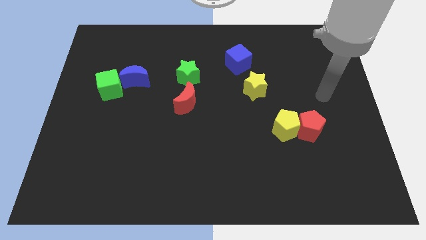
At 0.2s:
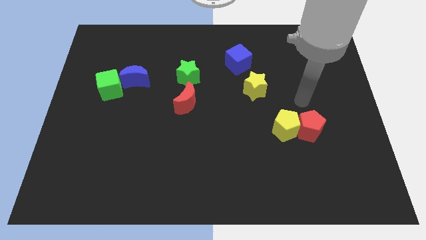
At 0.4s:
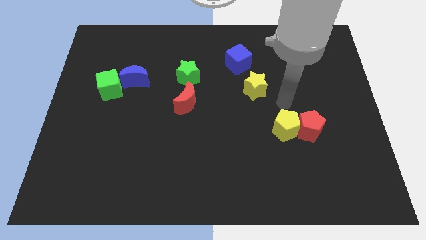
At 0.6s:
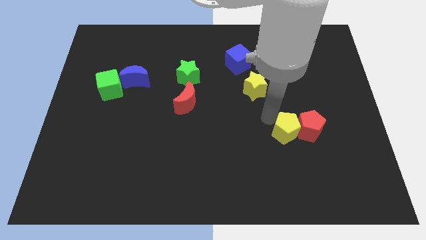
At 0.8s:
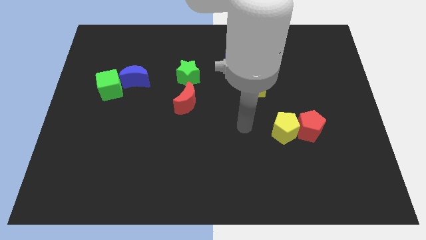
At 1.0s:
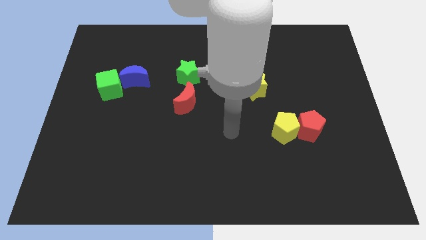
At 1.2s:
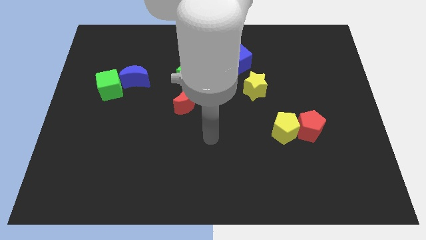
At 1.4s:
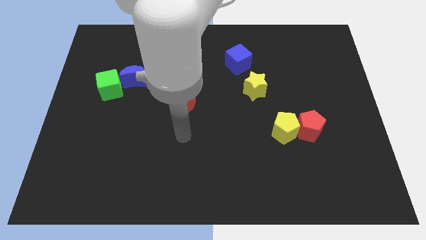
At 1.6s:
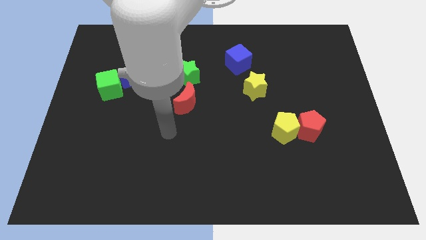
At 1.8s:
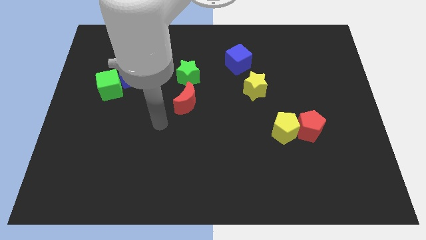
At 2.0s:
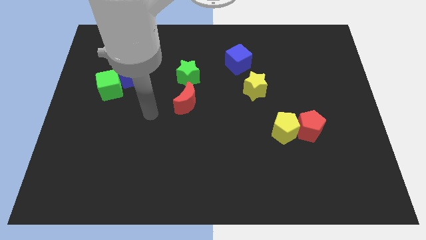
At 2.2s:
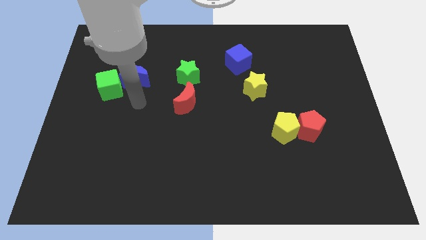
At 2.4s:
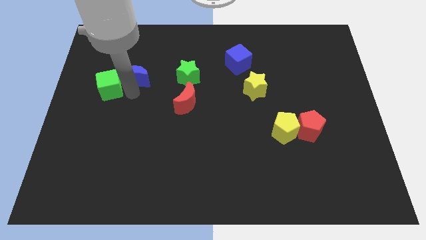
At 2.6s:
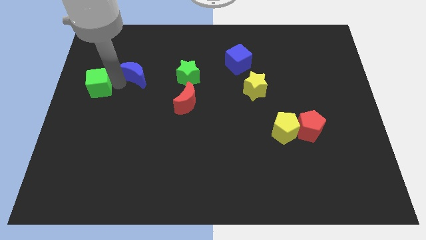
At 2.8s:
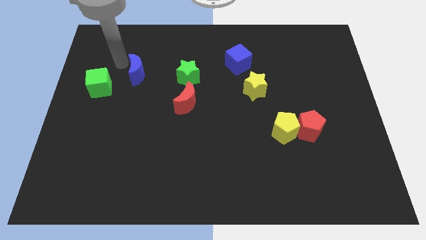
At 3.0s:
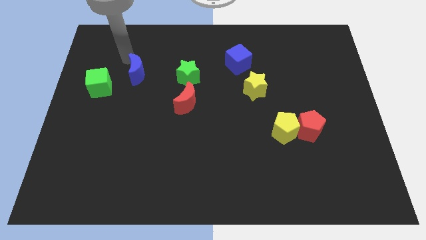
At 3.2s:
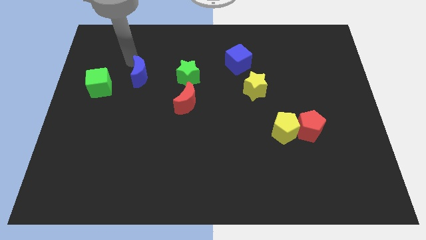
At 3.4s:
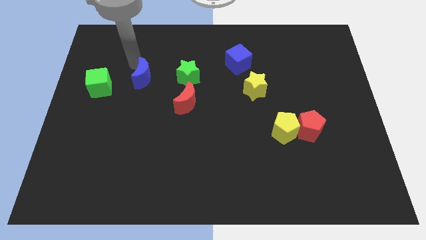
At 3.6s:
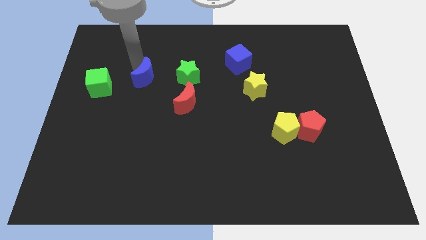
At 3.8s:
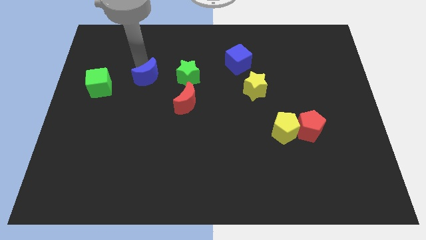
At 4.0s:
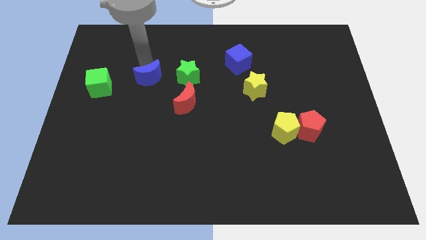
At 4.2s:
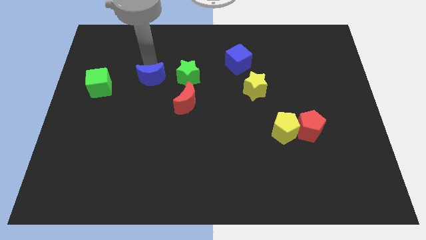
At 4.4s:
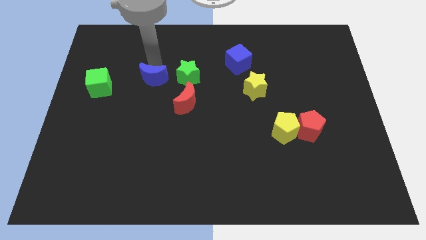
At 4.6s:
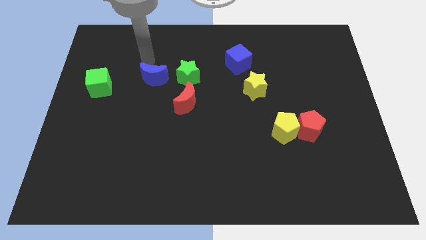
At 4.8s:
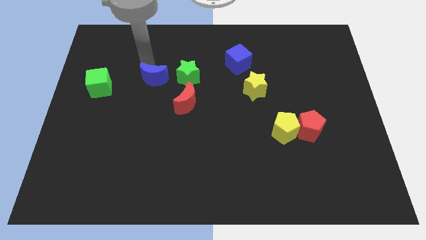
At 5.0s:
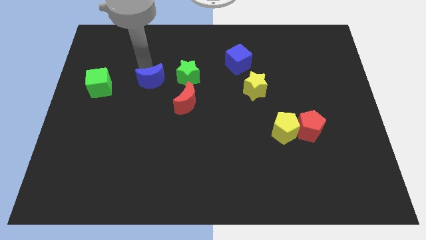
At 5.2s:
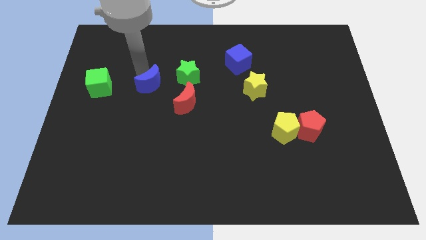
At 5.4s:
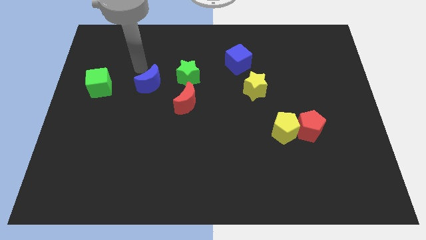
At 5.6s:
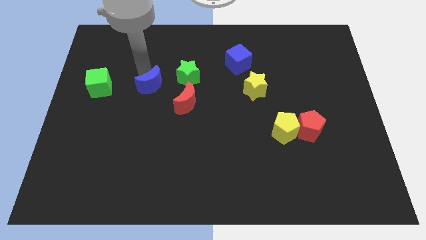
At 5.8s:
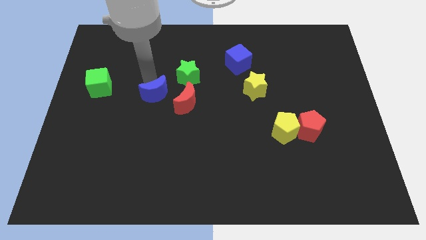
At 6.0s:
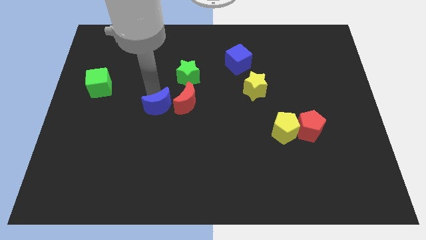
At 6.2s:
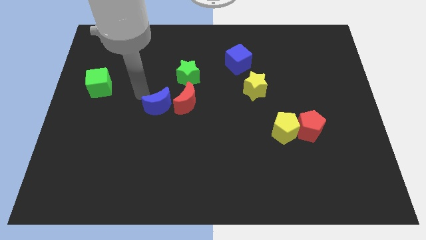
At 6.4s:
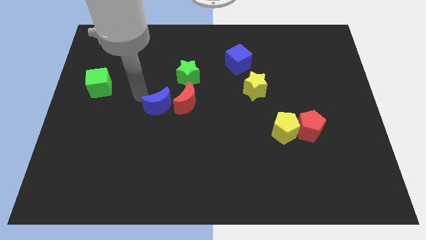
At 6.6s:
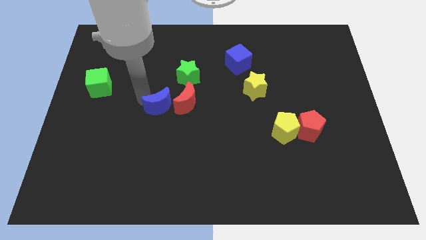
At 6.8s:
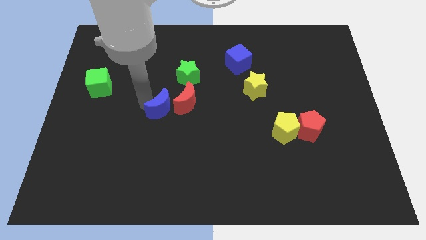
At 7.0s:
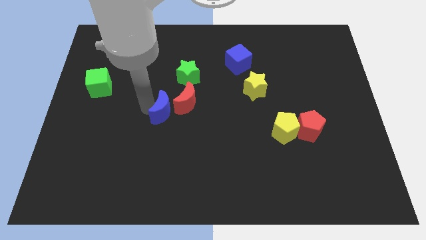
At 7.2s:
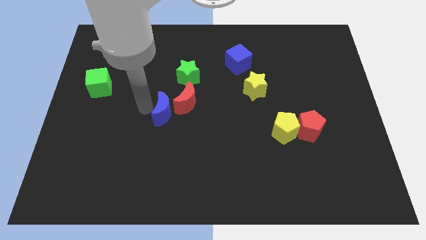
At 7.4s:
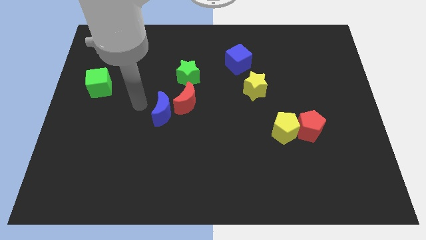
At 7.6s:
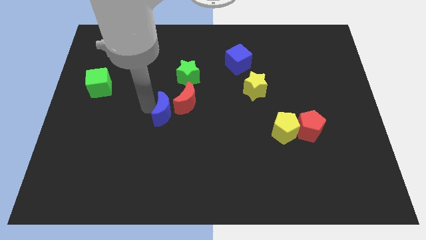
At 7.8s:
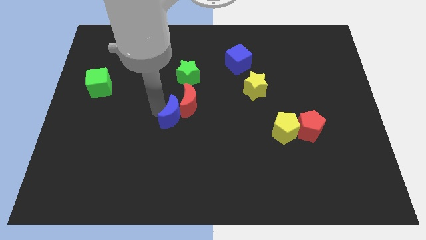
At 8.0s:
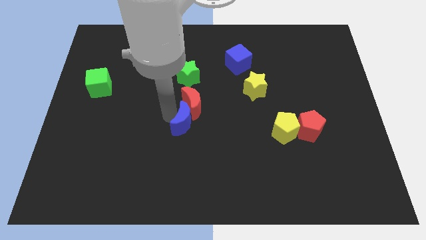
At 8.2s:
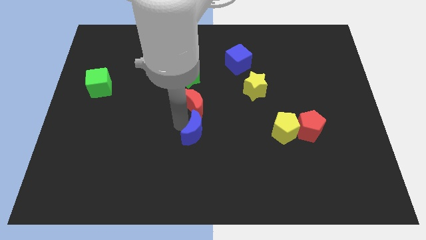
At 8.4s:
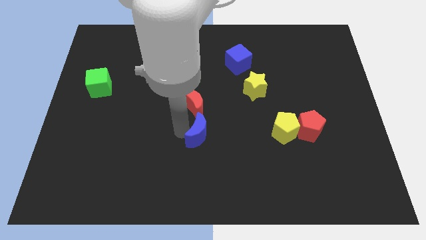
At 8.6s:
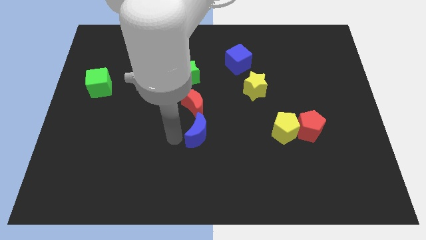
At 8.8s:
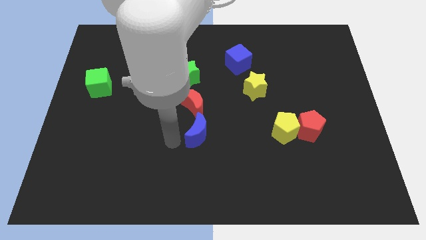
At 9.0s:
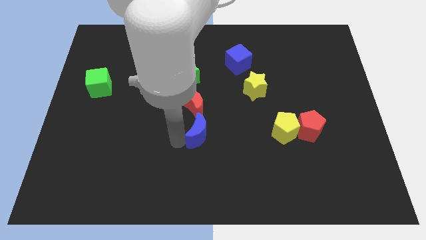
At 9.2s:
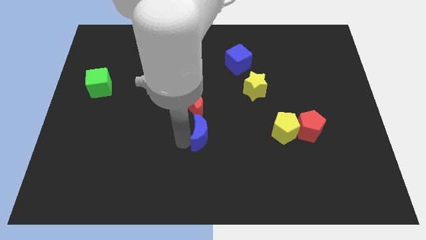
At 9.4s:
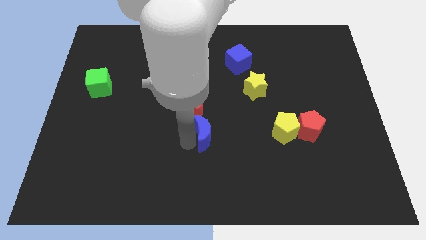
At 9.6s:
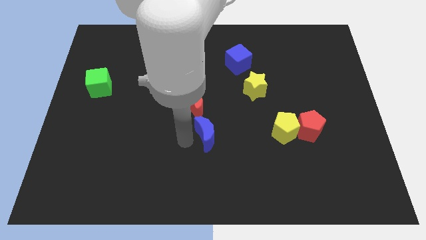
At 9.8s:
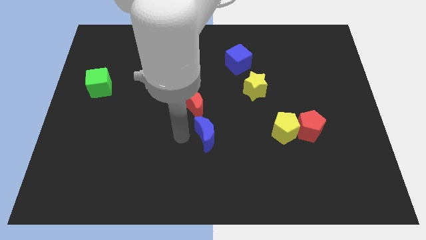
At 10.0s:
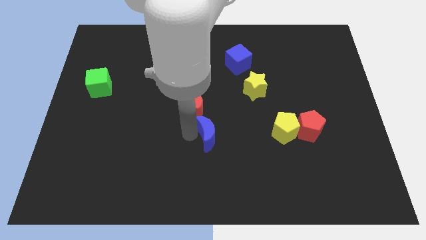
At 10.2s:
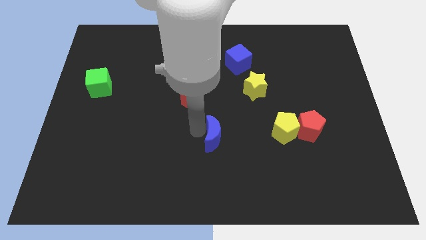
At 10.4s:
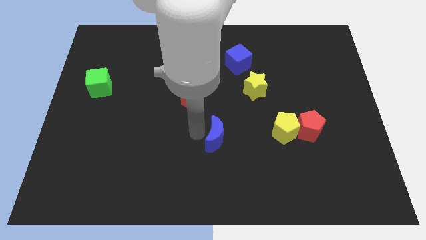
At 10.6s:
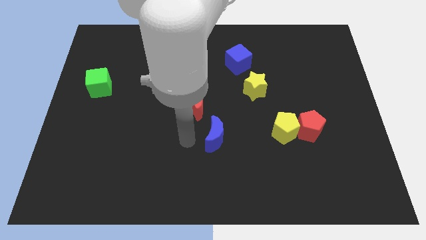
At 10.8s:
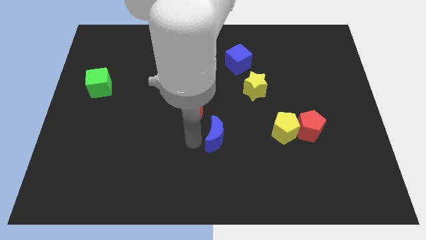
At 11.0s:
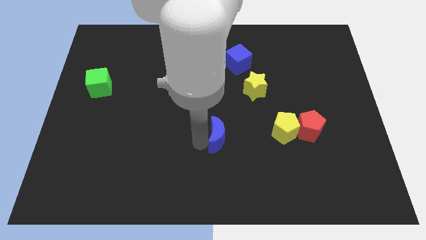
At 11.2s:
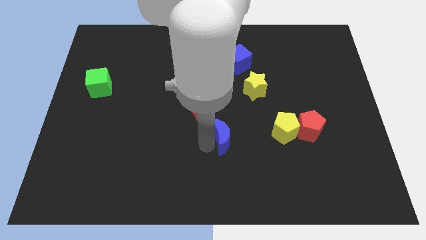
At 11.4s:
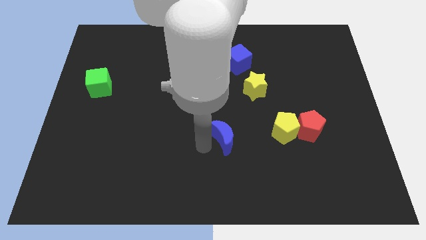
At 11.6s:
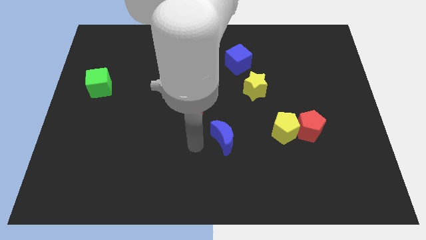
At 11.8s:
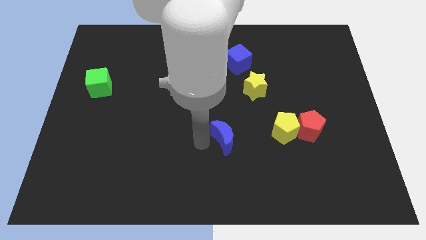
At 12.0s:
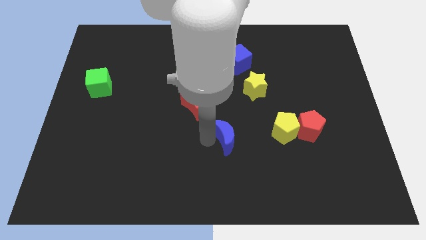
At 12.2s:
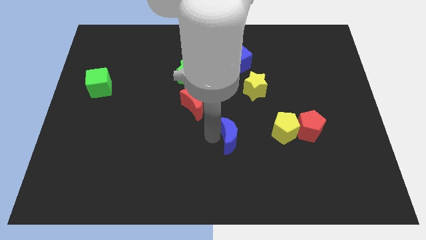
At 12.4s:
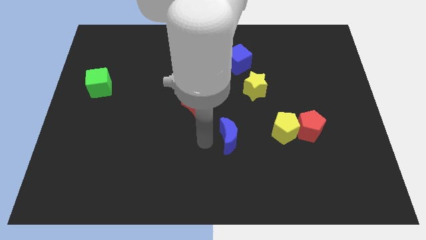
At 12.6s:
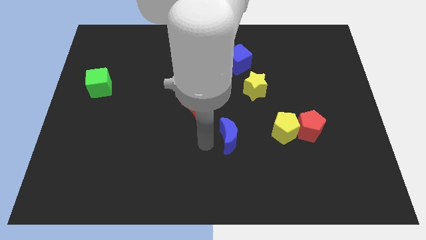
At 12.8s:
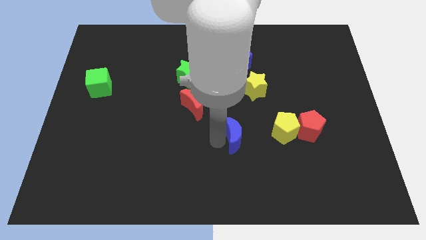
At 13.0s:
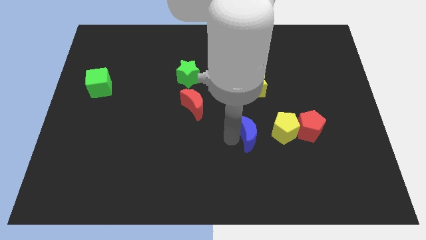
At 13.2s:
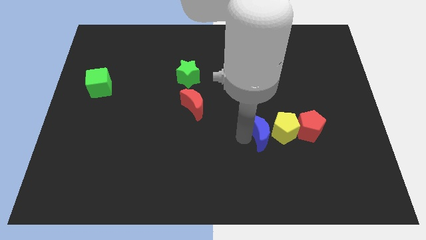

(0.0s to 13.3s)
slide the blue moon close to the yellow pentagon
